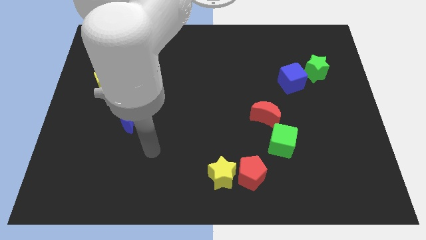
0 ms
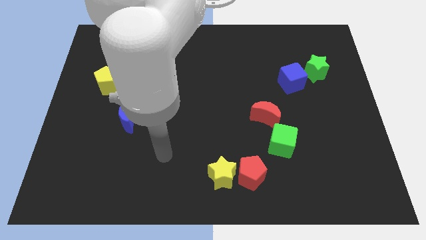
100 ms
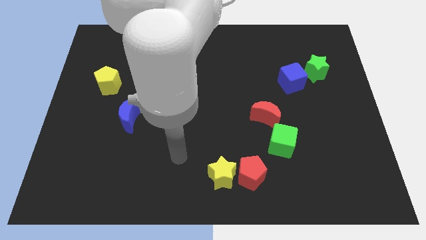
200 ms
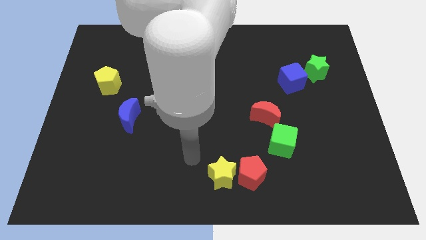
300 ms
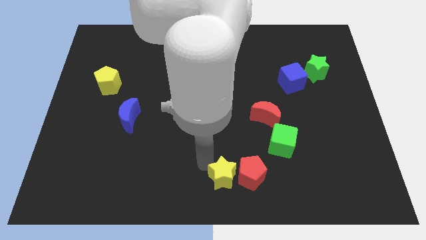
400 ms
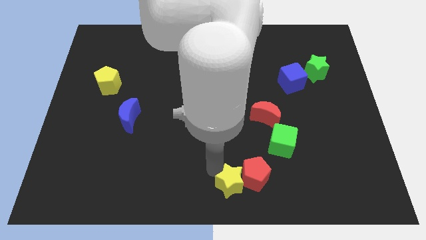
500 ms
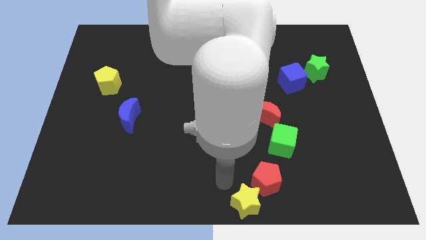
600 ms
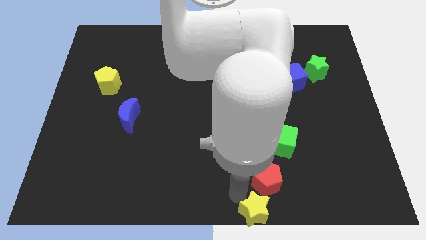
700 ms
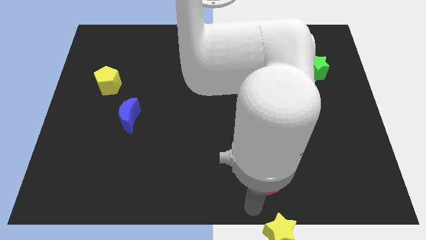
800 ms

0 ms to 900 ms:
move the red pentagon away from the yellow star

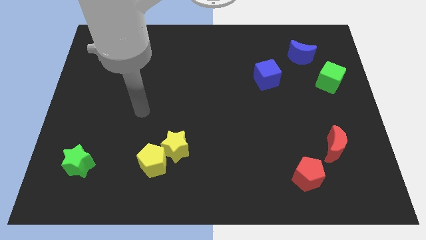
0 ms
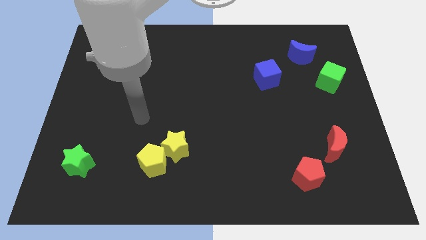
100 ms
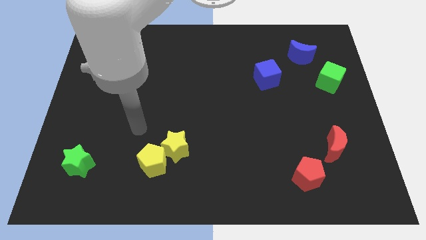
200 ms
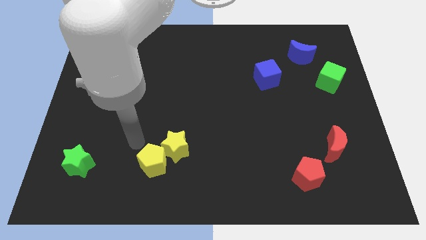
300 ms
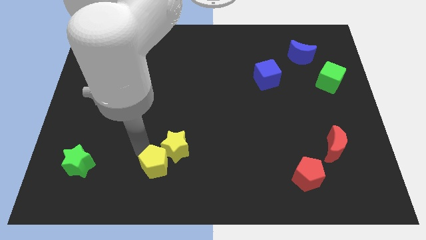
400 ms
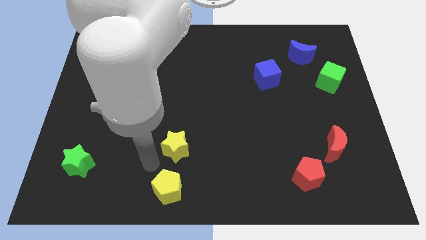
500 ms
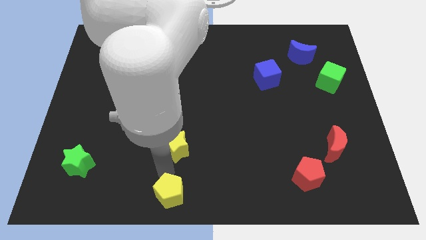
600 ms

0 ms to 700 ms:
pull the yellow star apart from the yellow pentagon

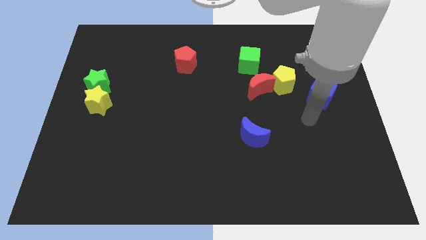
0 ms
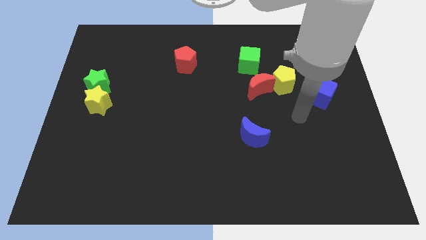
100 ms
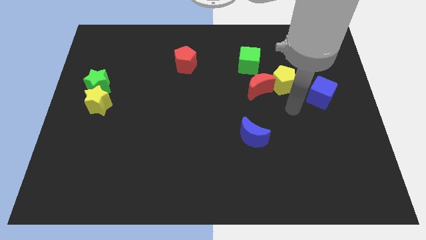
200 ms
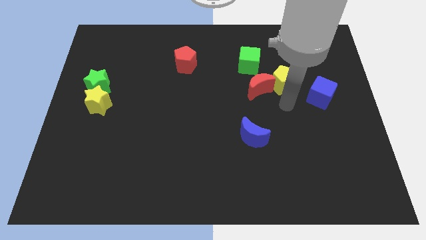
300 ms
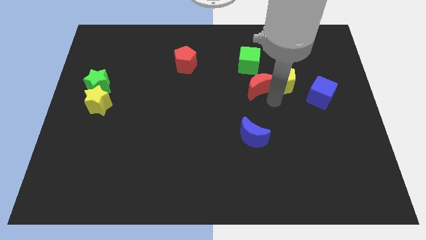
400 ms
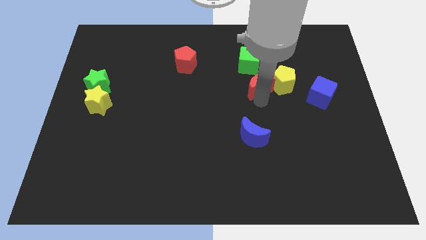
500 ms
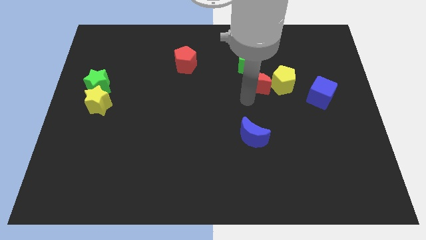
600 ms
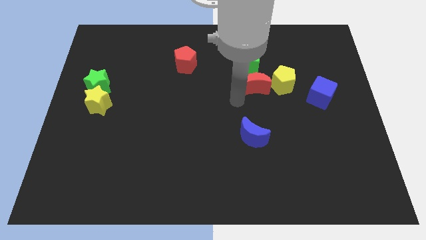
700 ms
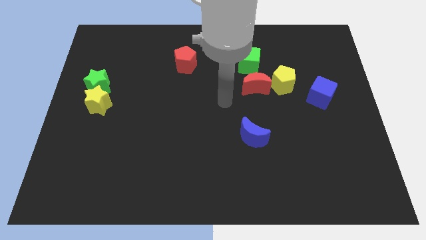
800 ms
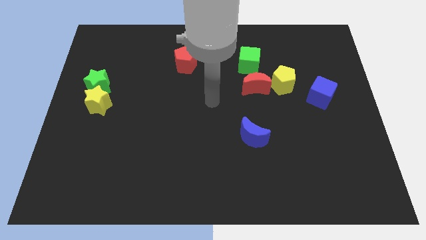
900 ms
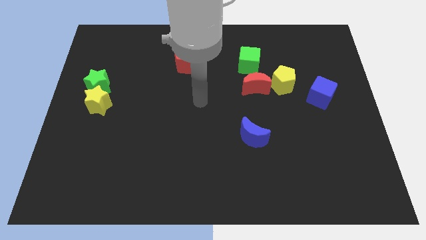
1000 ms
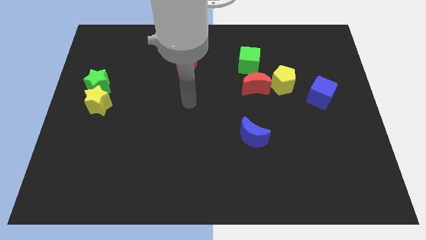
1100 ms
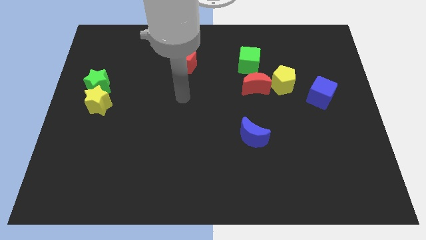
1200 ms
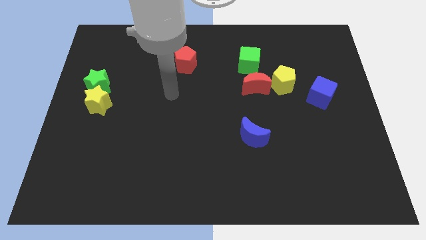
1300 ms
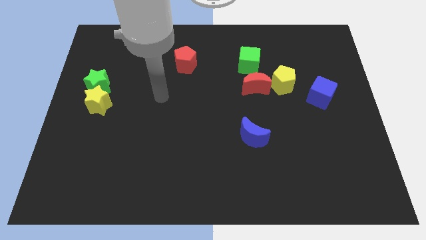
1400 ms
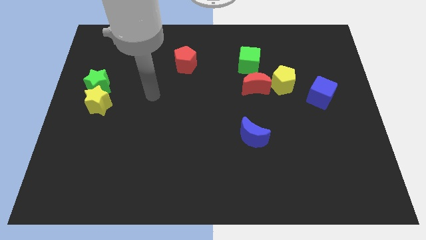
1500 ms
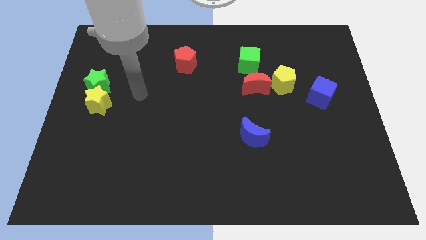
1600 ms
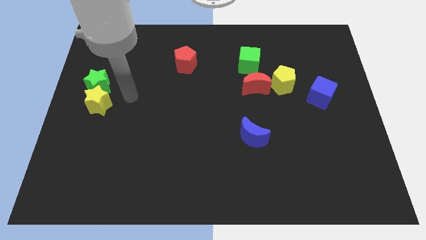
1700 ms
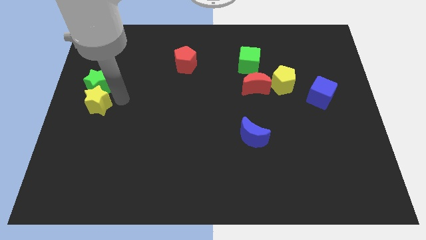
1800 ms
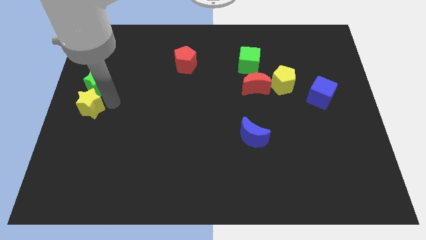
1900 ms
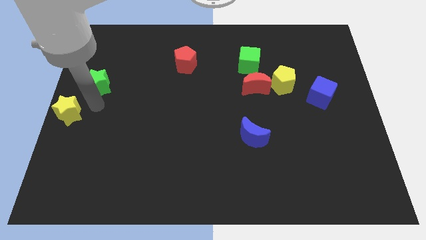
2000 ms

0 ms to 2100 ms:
move the green star away from the yellow star

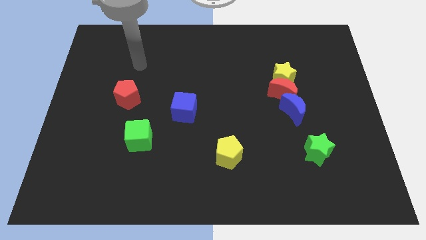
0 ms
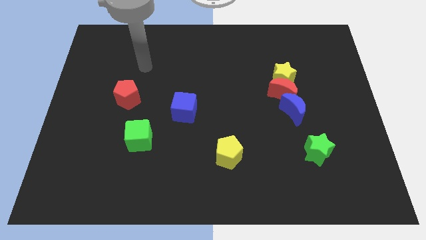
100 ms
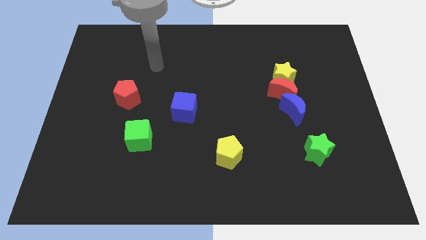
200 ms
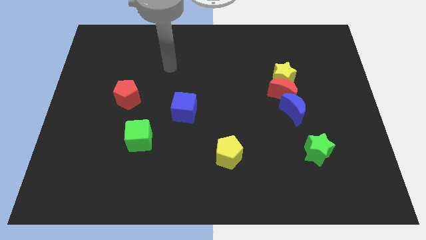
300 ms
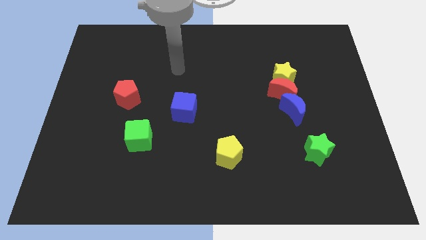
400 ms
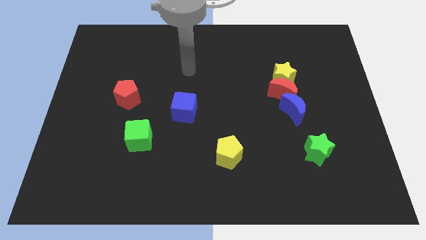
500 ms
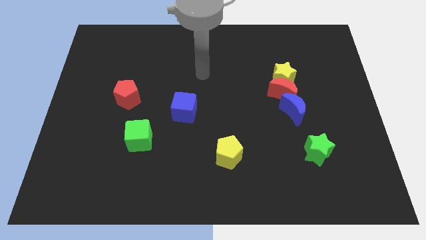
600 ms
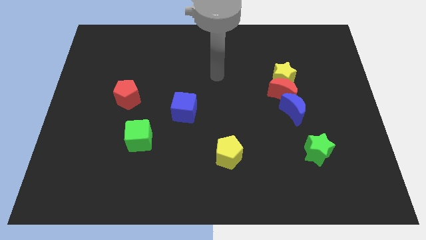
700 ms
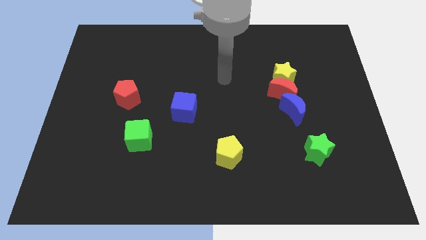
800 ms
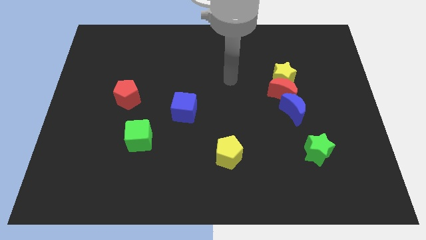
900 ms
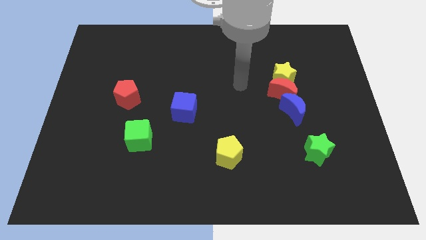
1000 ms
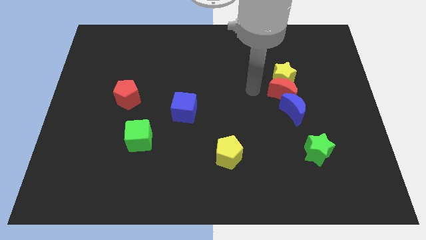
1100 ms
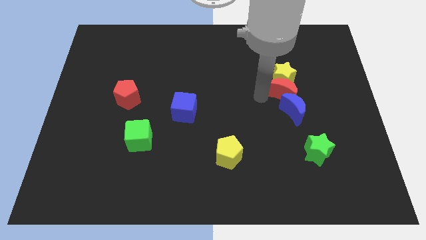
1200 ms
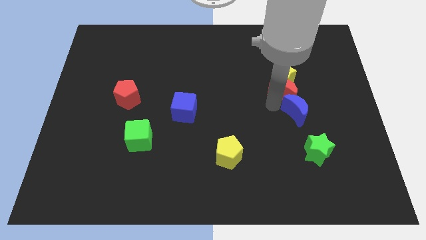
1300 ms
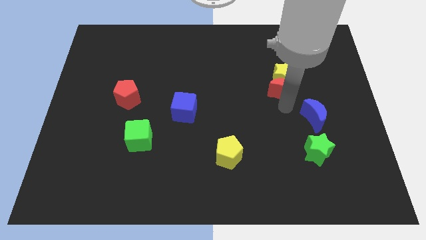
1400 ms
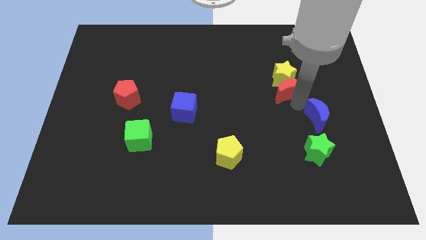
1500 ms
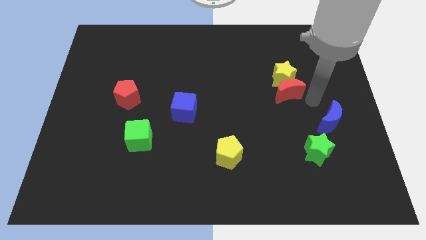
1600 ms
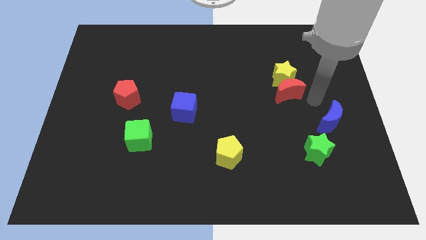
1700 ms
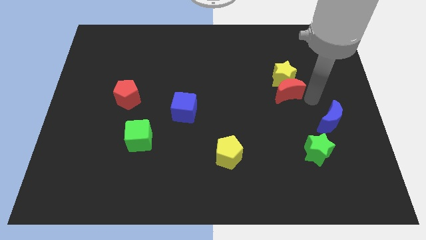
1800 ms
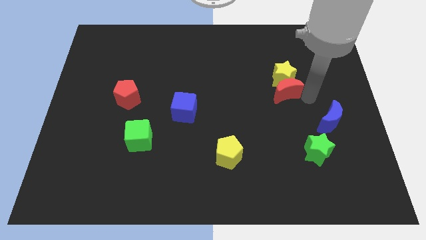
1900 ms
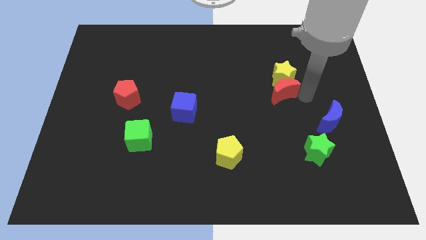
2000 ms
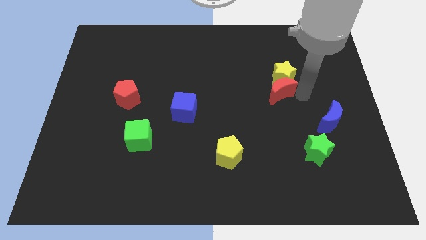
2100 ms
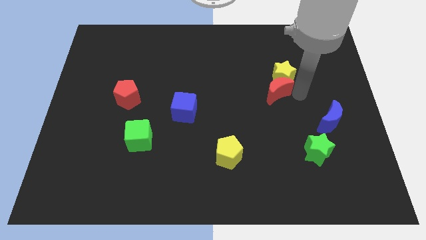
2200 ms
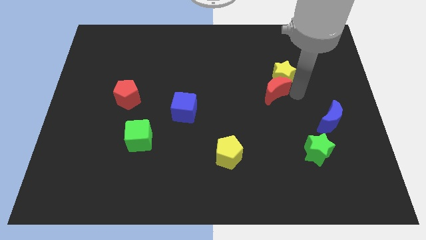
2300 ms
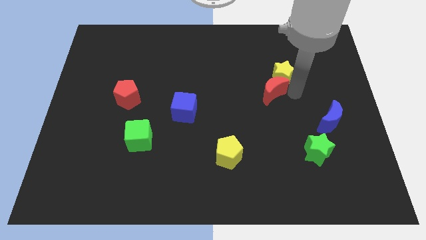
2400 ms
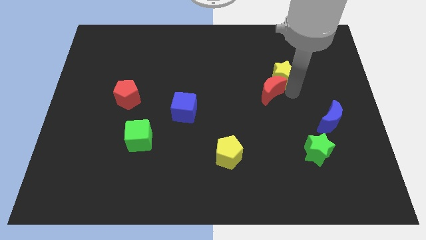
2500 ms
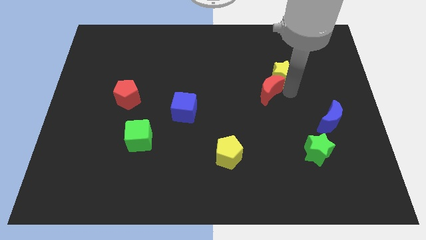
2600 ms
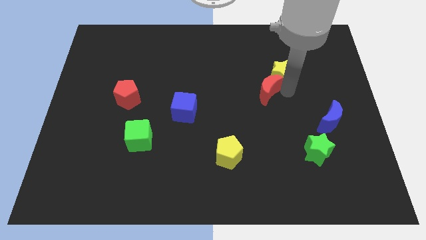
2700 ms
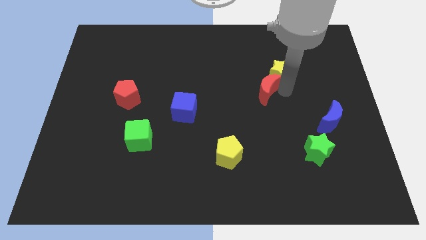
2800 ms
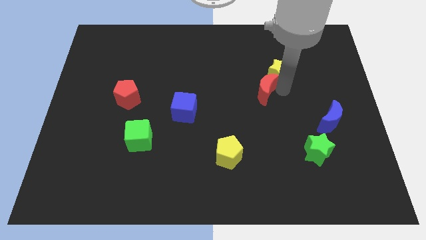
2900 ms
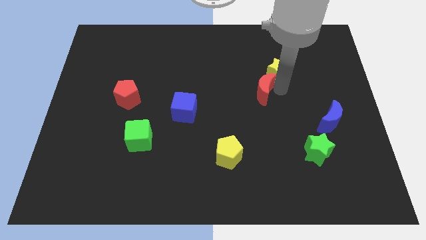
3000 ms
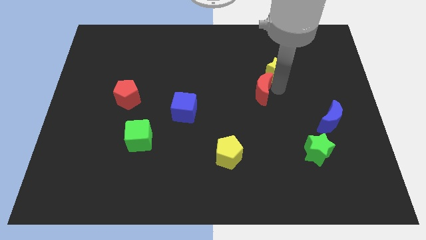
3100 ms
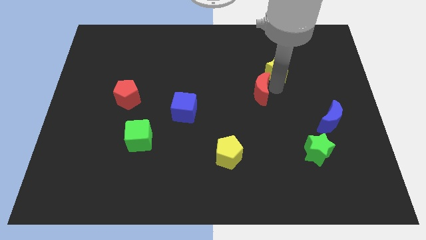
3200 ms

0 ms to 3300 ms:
pull the red moon apart from the yellow star and blue moon

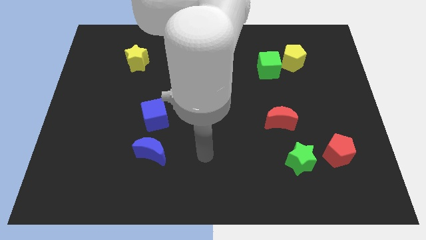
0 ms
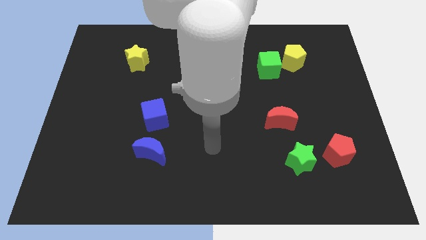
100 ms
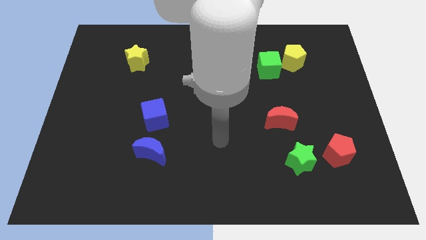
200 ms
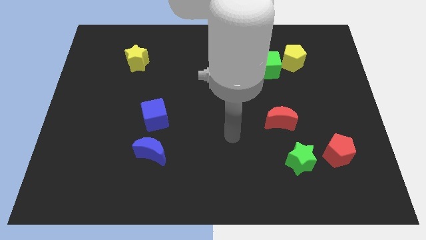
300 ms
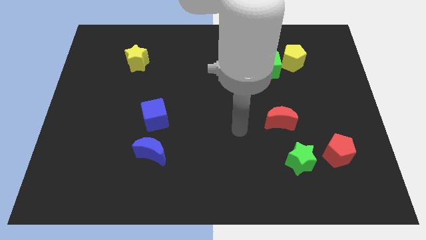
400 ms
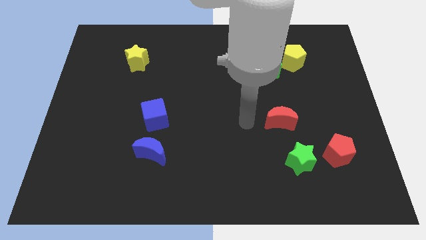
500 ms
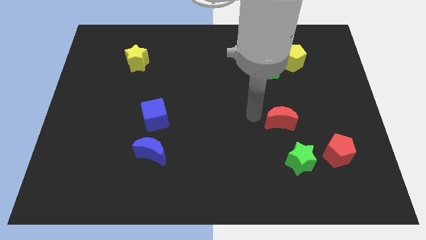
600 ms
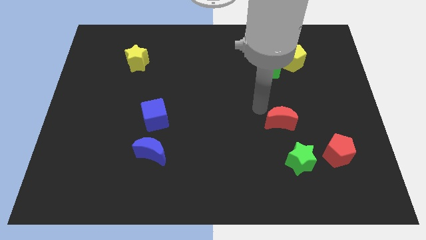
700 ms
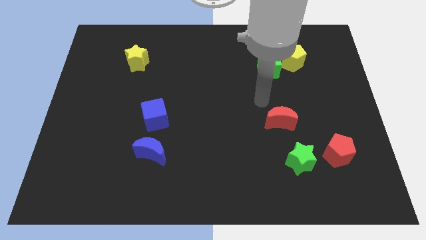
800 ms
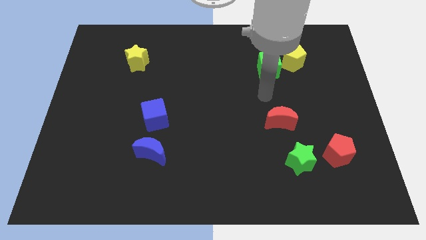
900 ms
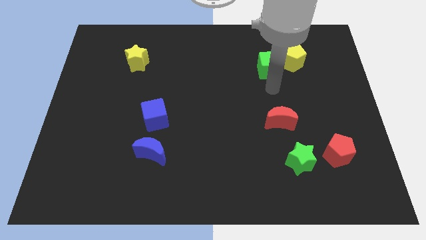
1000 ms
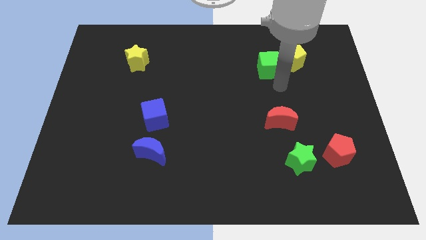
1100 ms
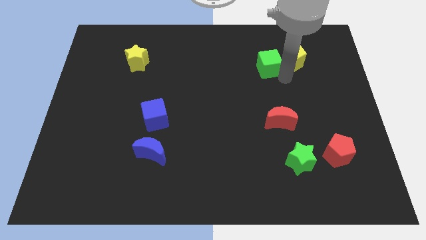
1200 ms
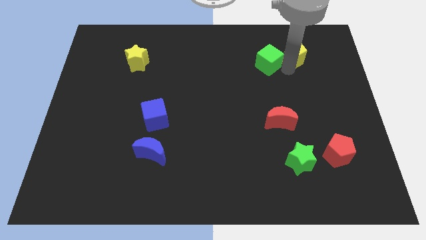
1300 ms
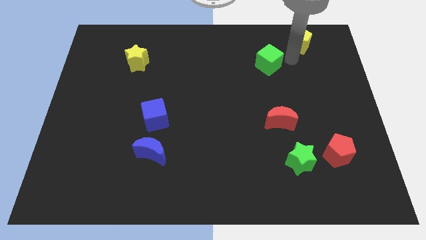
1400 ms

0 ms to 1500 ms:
move the green cube away from the yellow pentagon

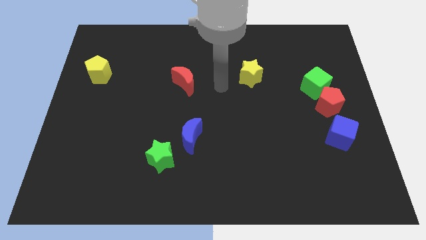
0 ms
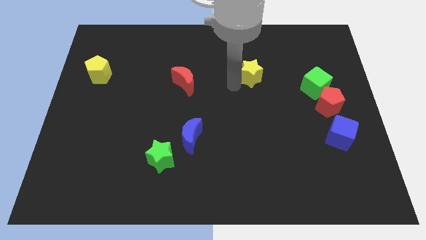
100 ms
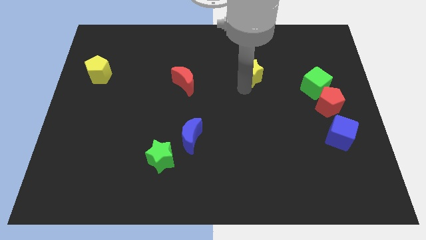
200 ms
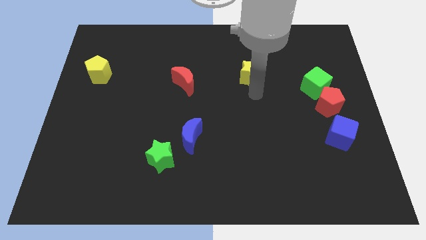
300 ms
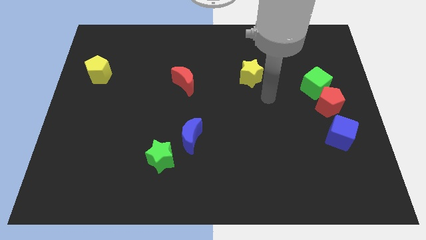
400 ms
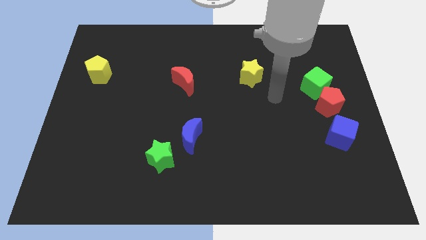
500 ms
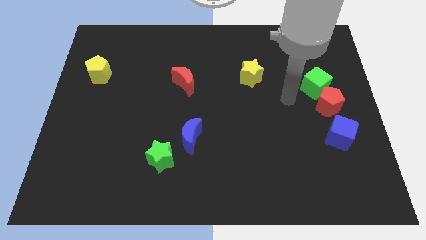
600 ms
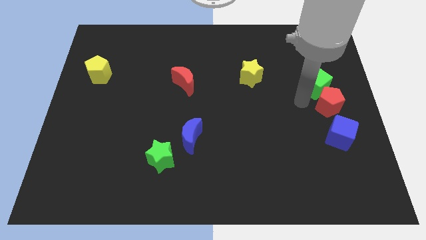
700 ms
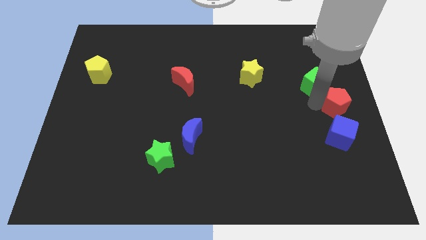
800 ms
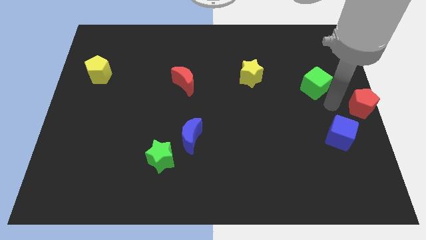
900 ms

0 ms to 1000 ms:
pull the green cube apart from the red pentagon

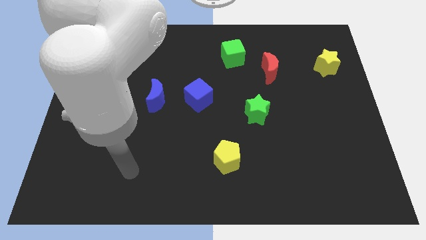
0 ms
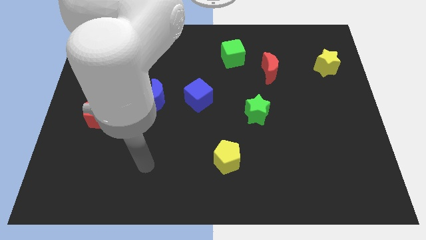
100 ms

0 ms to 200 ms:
pull the blue moon apart from the blue cube
